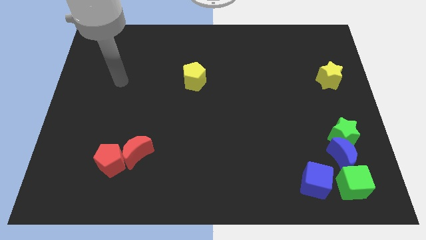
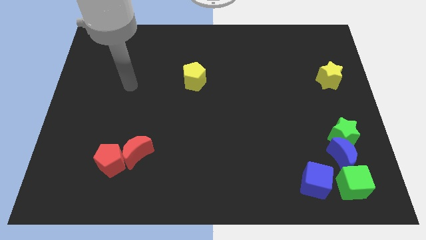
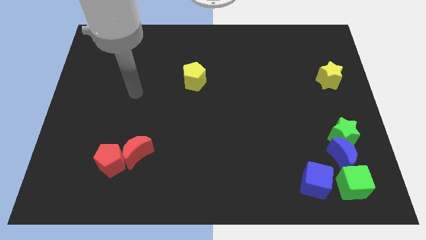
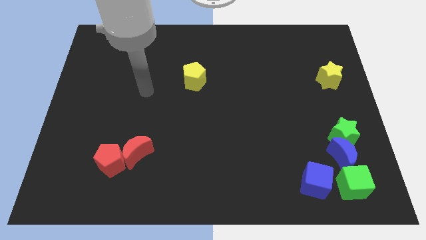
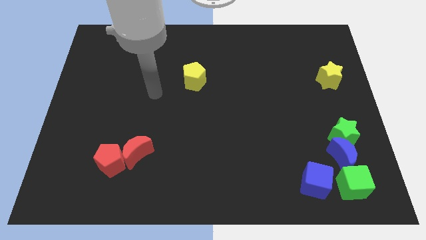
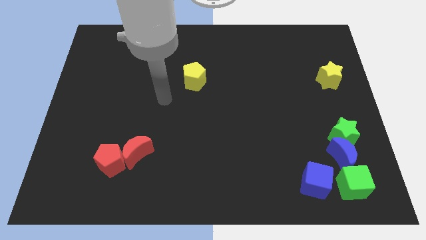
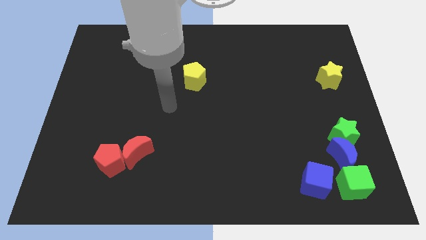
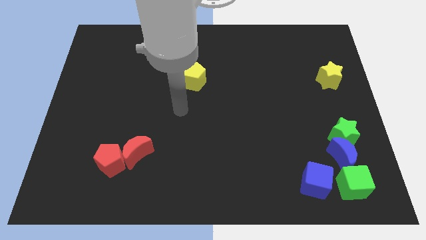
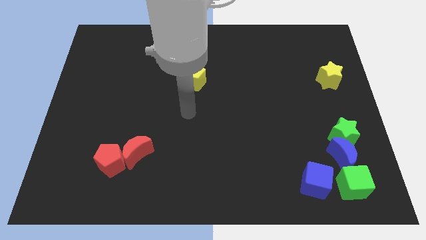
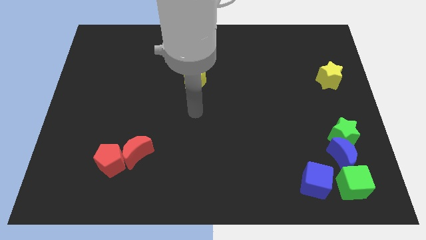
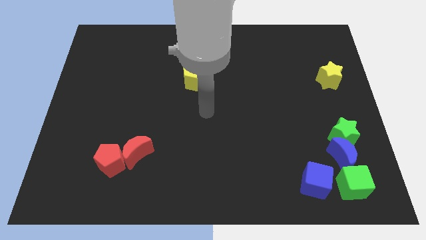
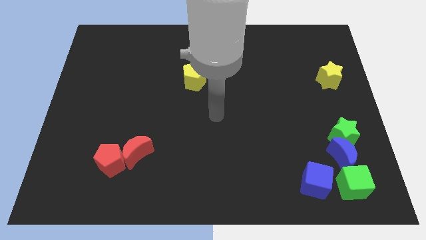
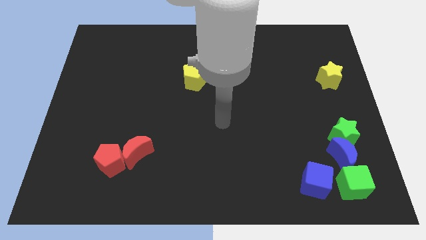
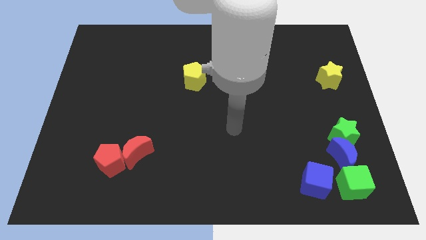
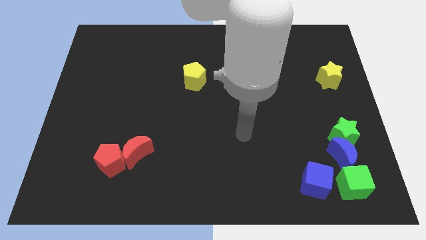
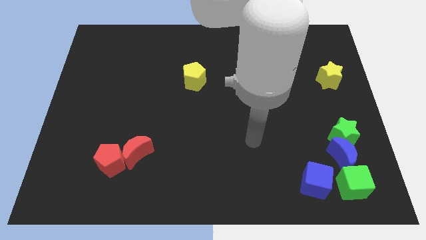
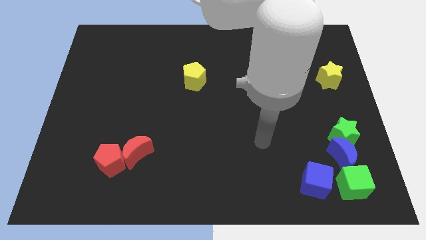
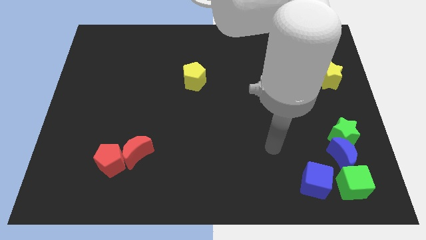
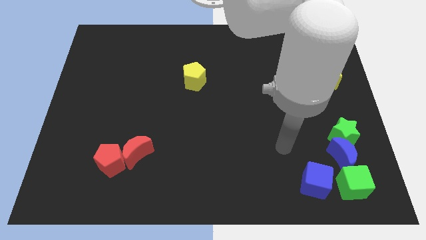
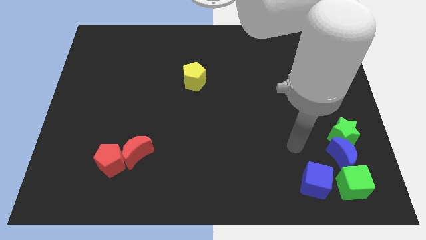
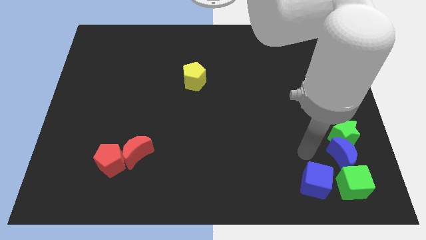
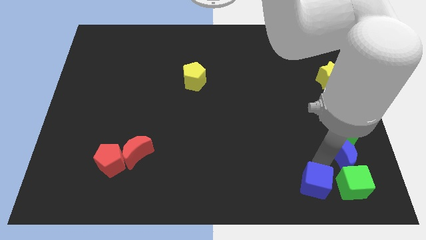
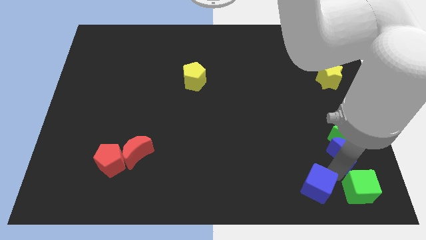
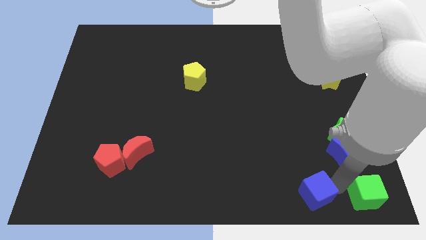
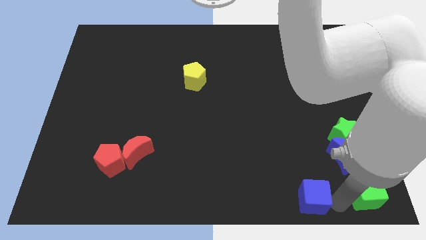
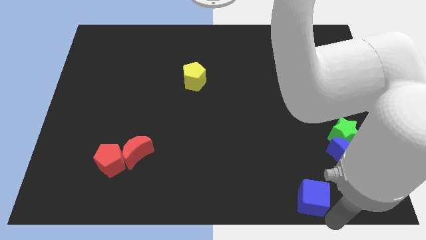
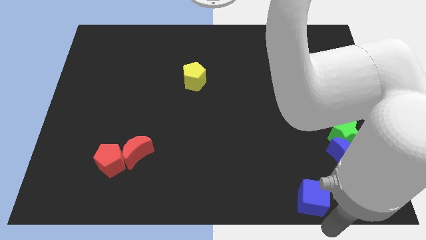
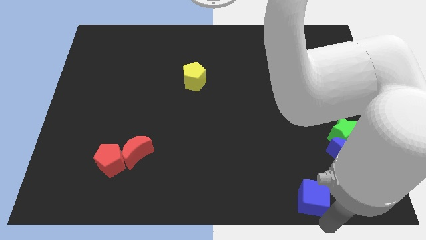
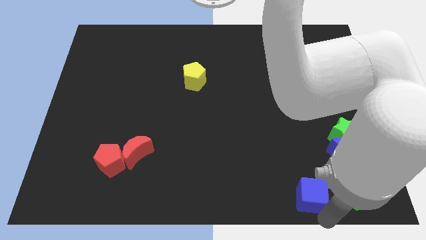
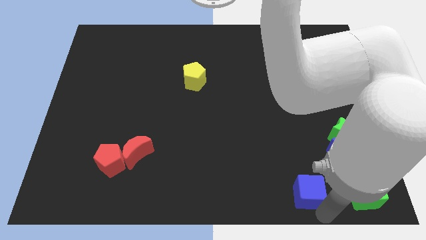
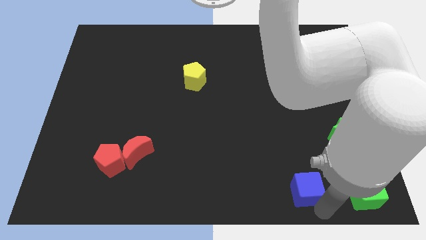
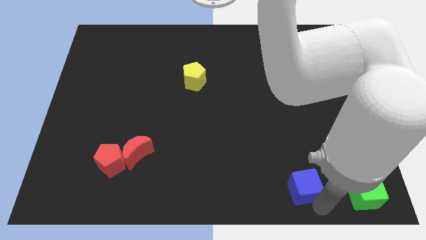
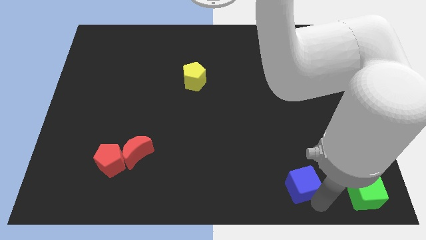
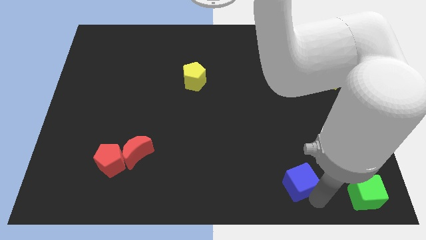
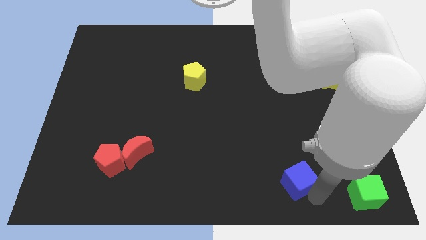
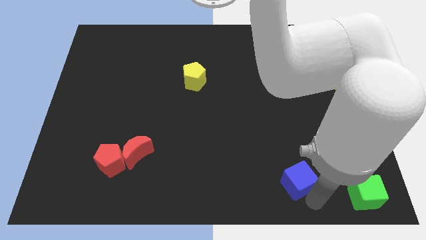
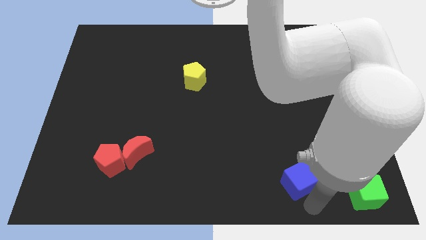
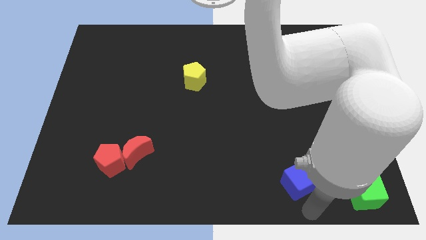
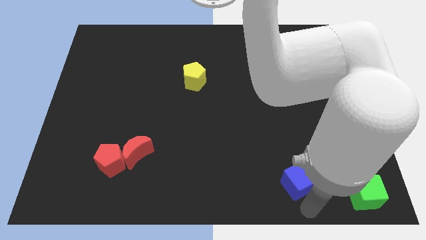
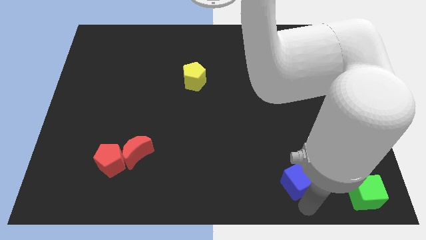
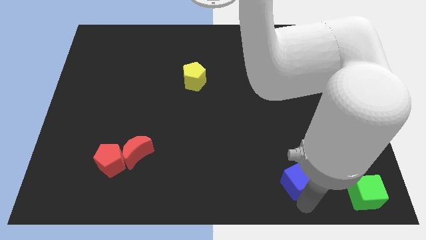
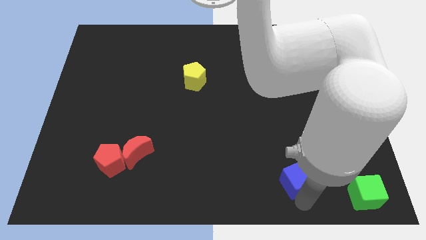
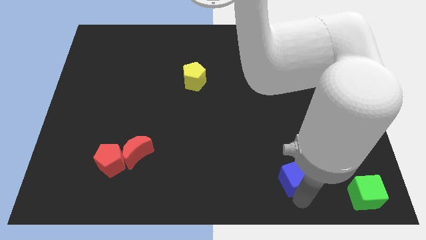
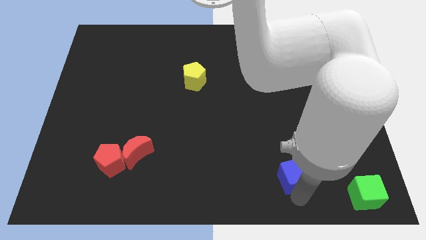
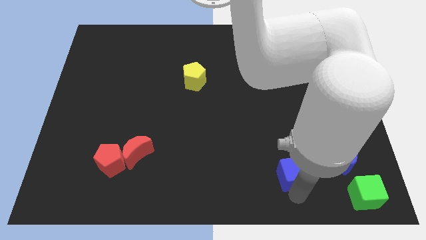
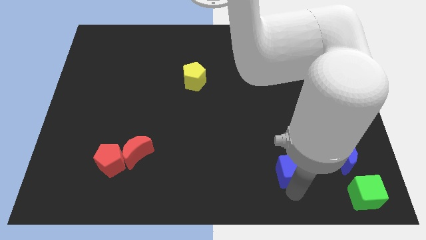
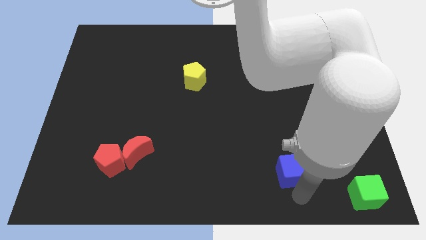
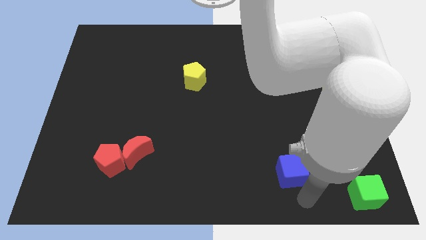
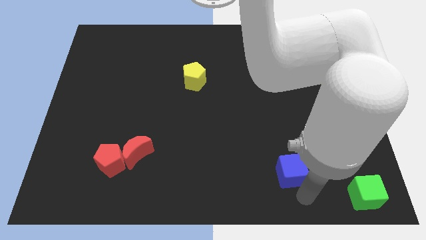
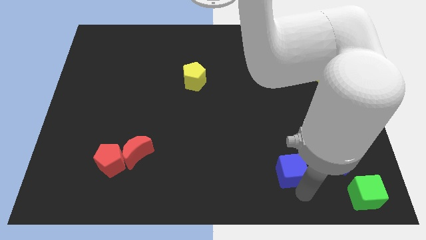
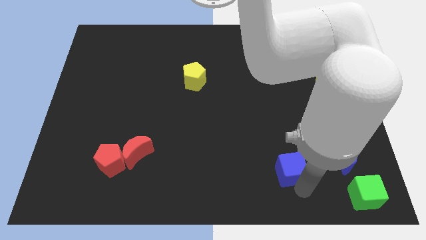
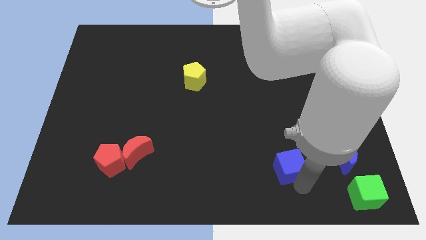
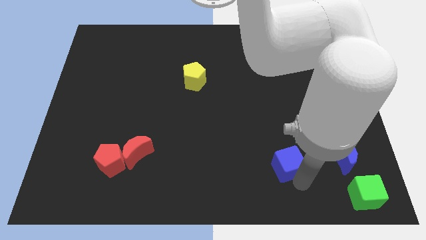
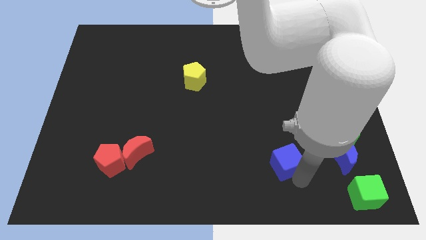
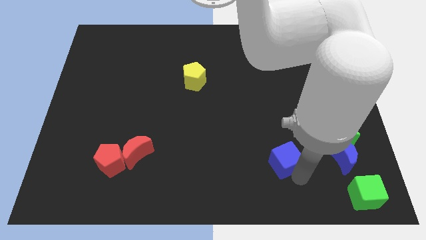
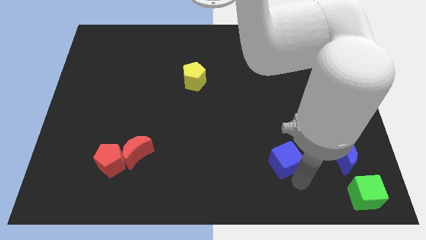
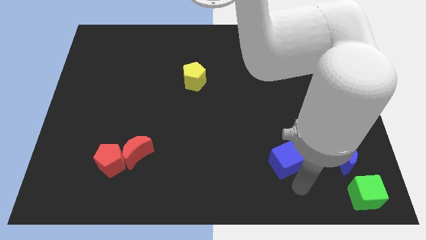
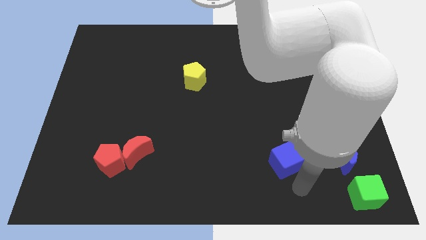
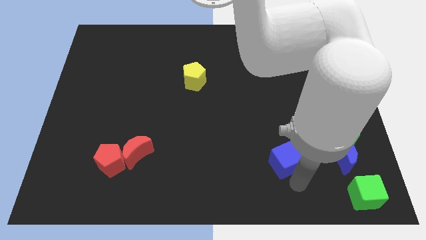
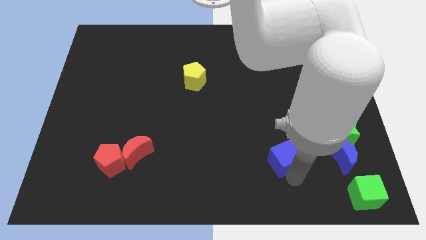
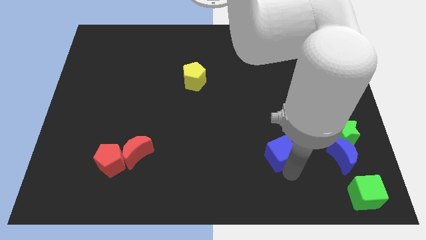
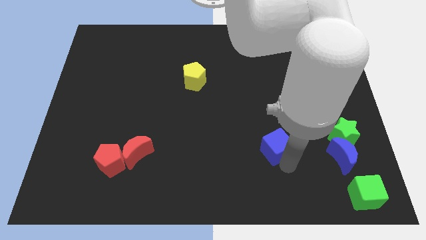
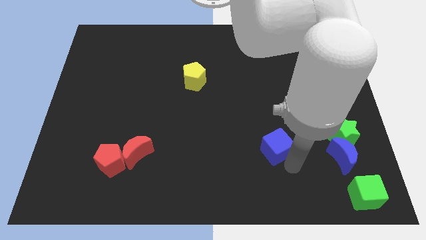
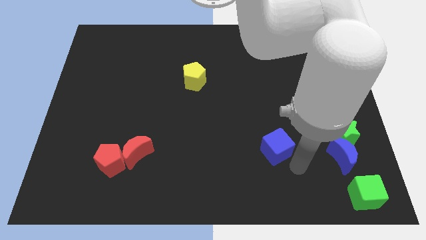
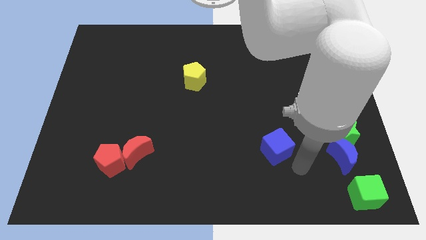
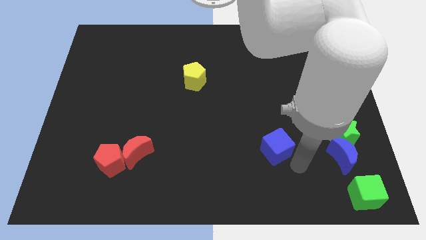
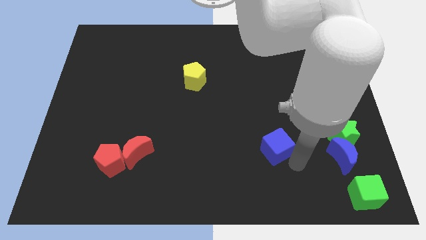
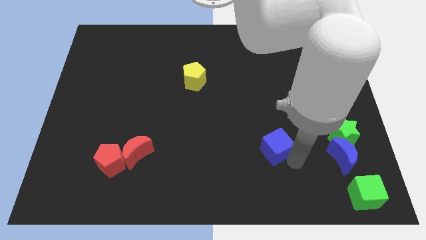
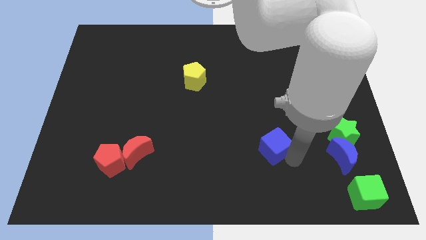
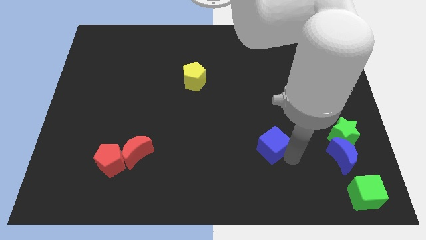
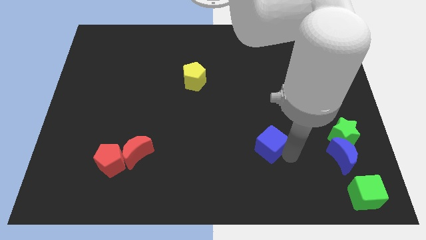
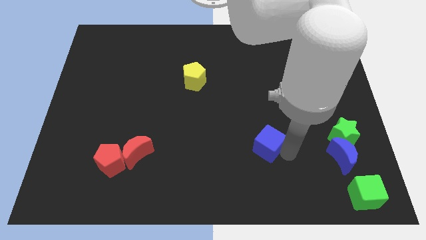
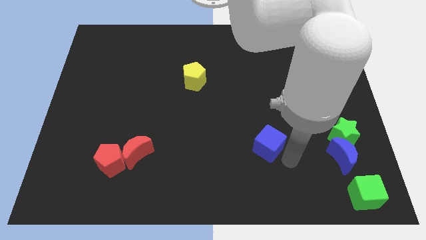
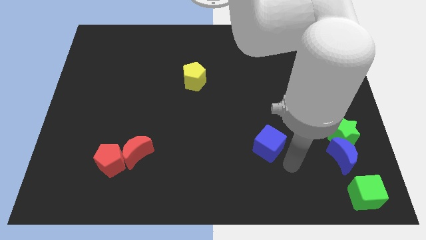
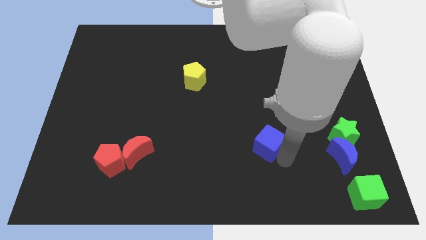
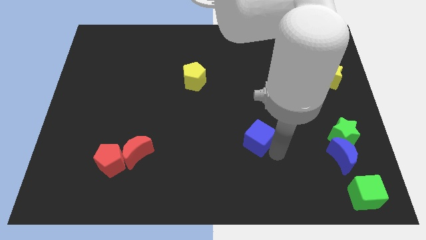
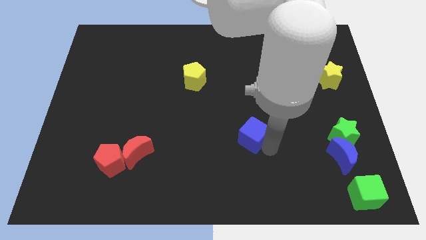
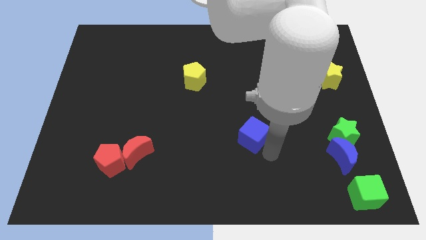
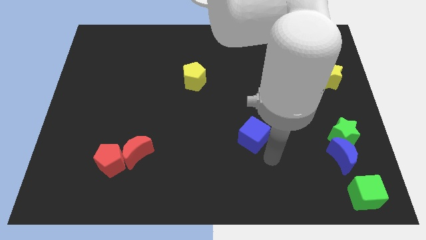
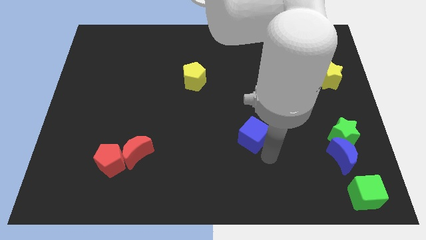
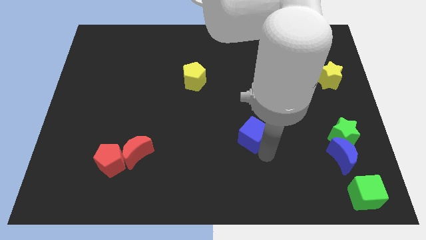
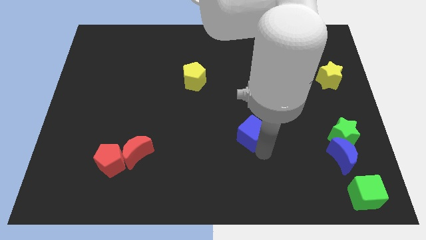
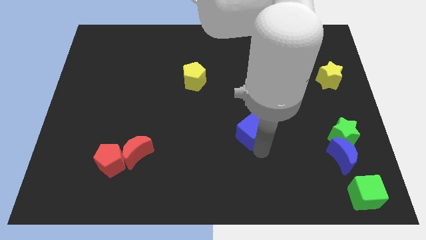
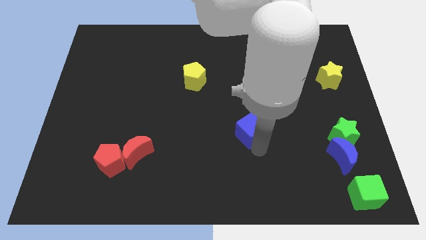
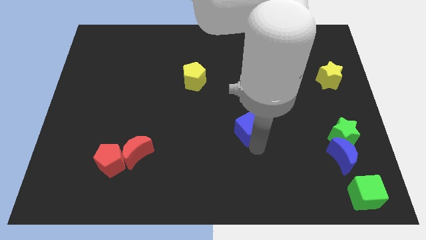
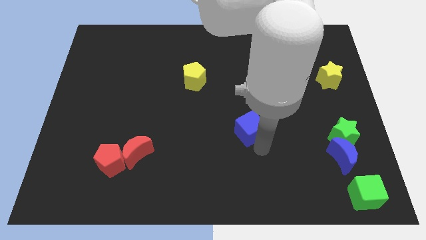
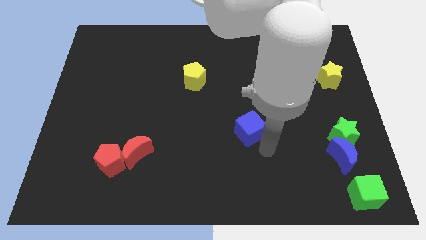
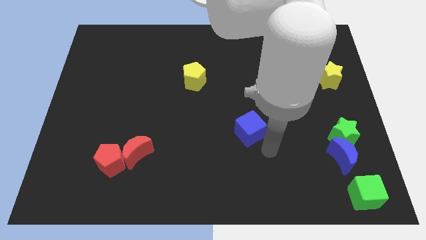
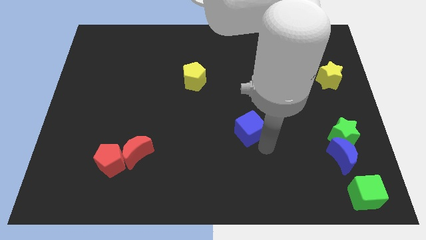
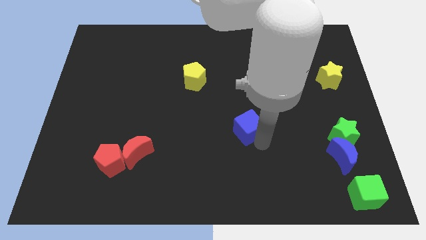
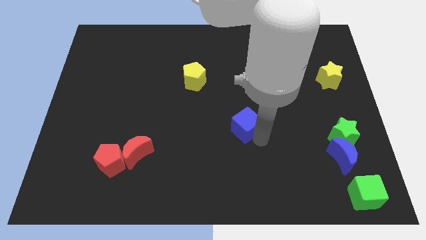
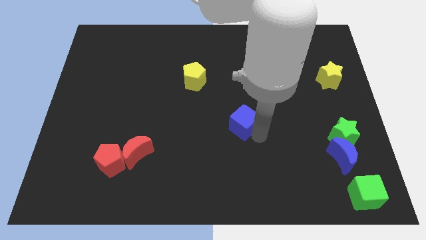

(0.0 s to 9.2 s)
slide the blue cube up and to the left
